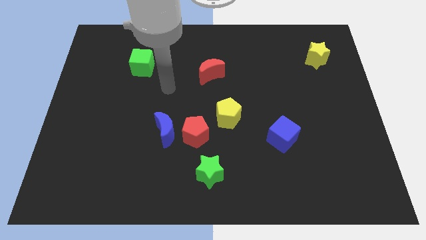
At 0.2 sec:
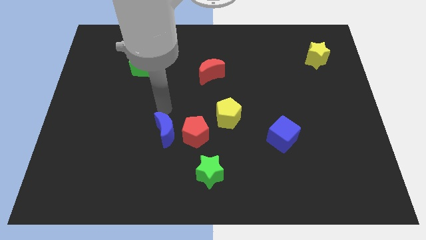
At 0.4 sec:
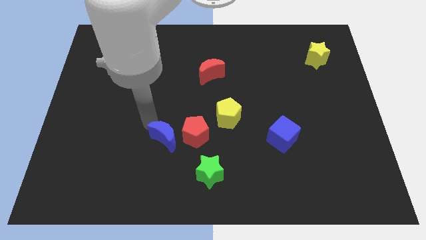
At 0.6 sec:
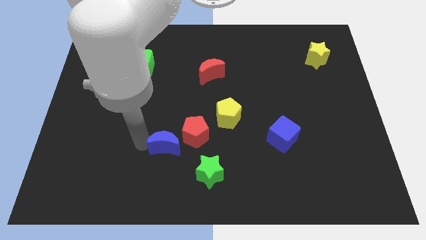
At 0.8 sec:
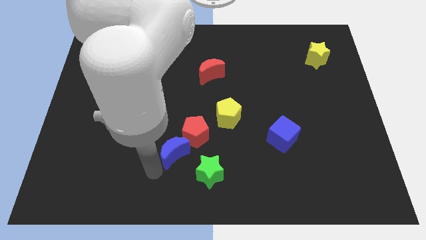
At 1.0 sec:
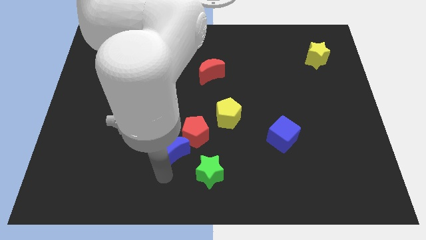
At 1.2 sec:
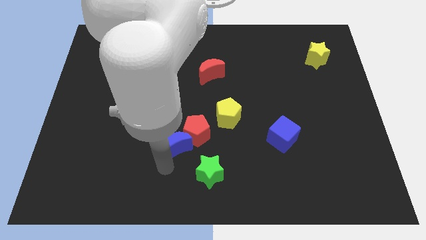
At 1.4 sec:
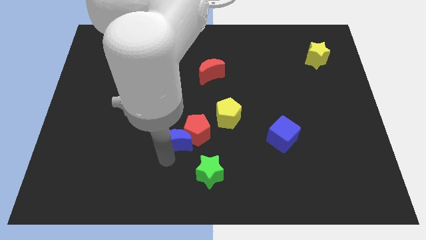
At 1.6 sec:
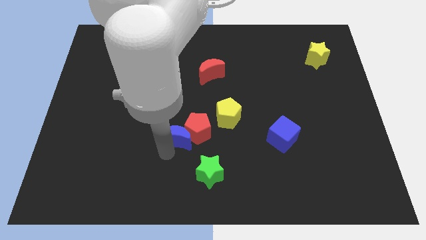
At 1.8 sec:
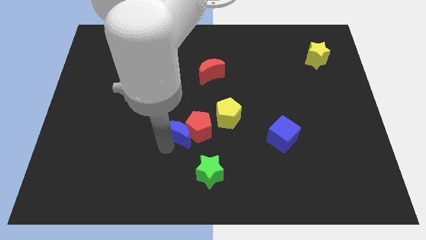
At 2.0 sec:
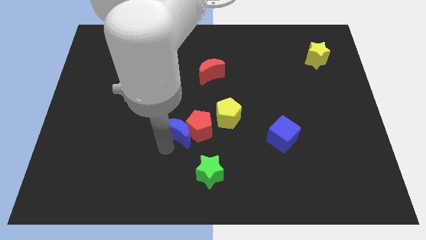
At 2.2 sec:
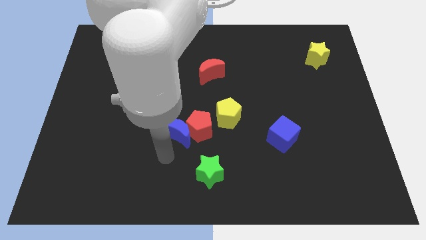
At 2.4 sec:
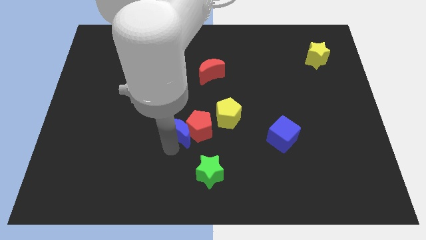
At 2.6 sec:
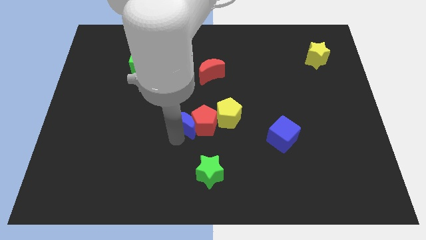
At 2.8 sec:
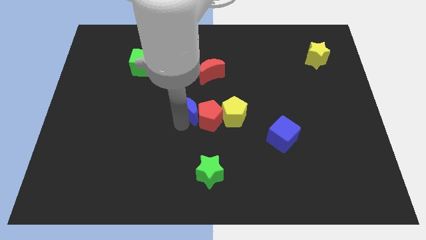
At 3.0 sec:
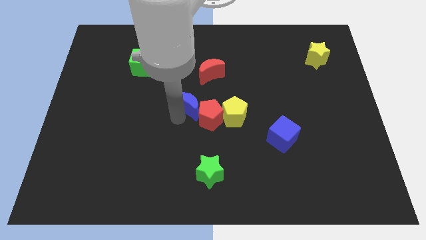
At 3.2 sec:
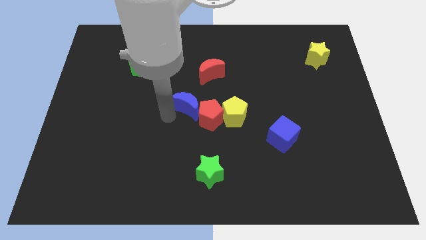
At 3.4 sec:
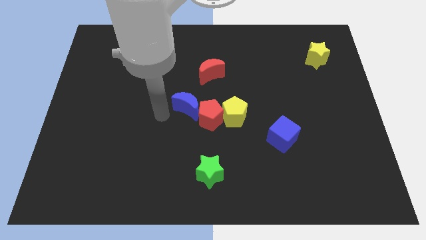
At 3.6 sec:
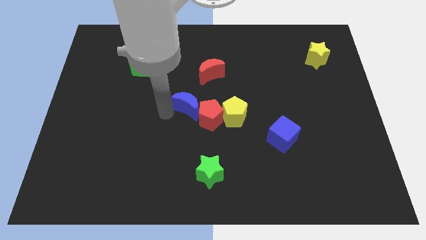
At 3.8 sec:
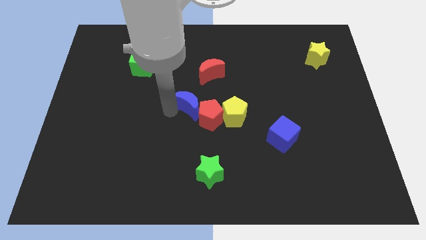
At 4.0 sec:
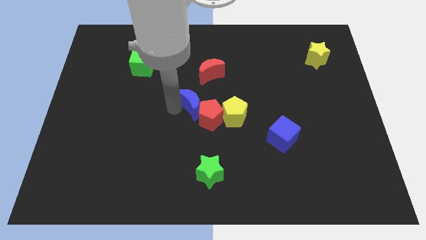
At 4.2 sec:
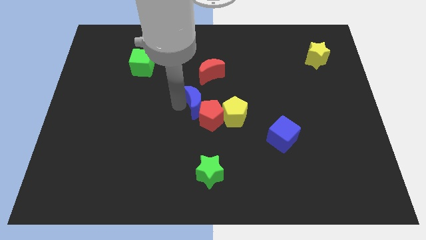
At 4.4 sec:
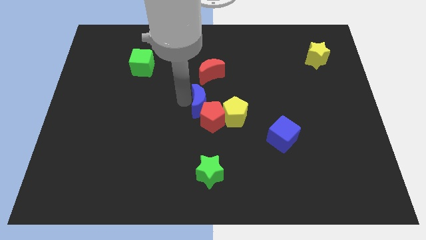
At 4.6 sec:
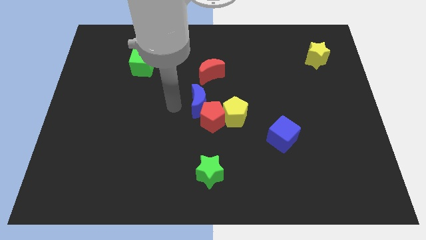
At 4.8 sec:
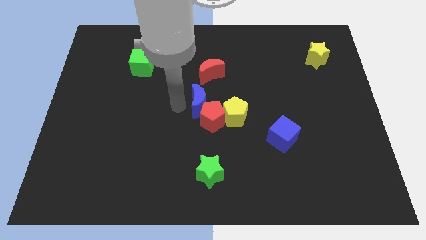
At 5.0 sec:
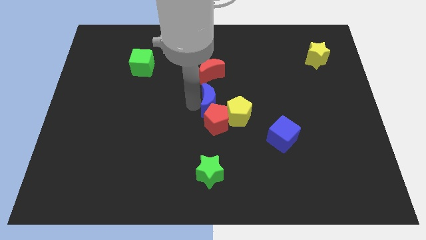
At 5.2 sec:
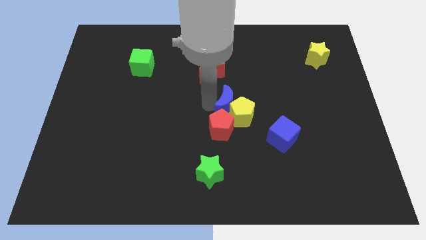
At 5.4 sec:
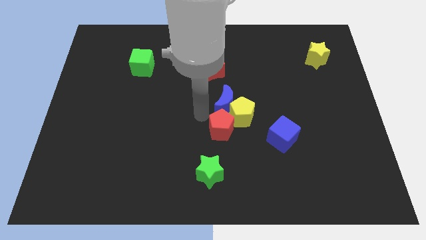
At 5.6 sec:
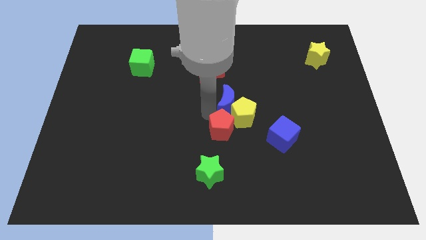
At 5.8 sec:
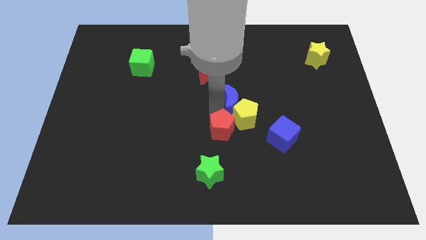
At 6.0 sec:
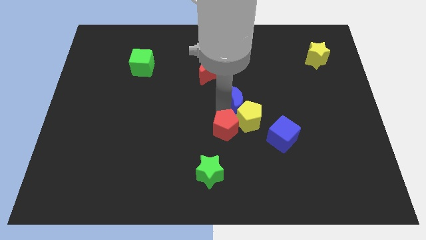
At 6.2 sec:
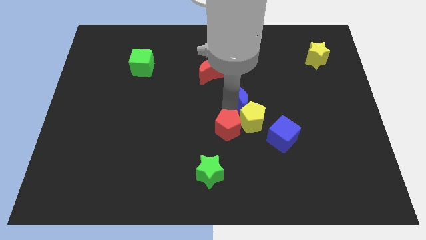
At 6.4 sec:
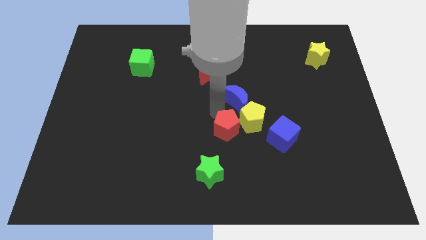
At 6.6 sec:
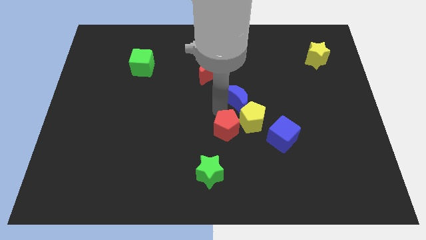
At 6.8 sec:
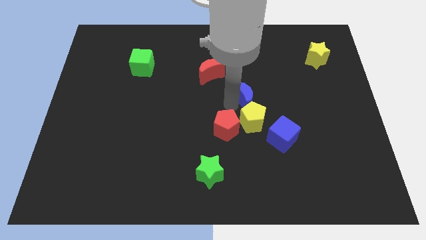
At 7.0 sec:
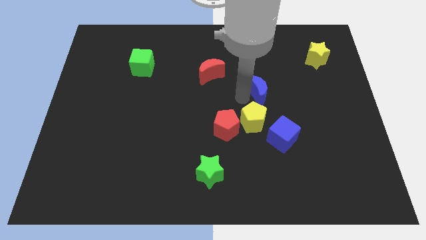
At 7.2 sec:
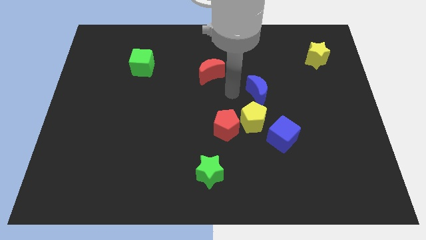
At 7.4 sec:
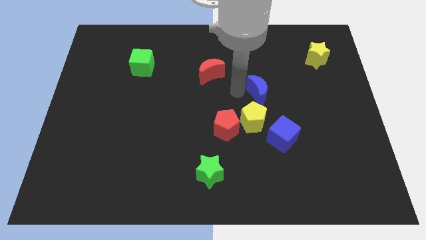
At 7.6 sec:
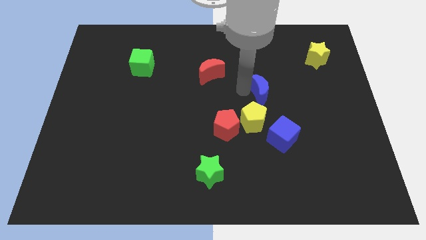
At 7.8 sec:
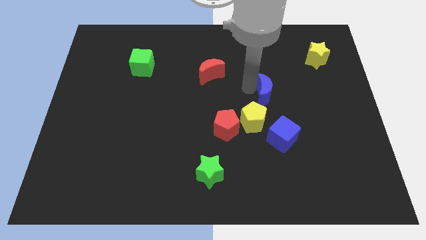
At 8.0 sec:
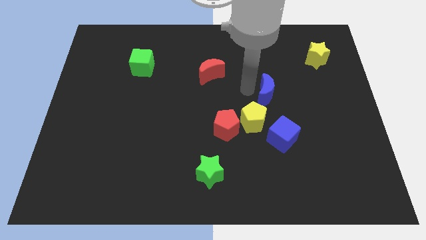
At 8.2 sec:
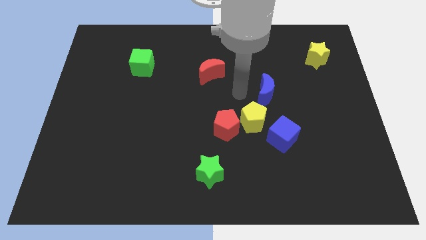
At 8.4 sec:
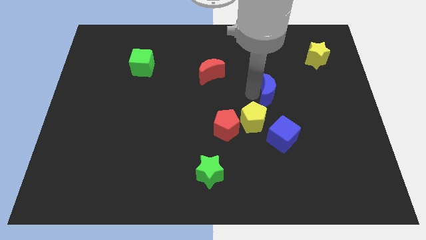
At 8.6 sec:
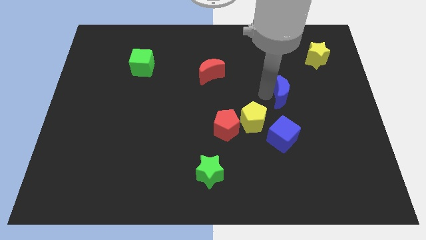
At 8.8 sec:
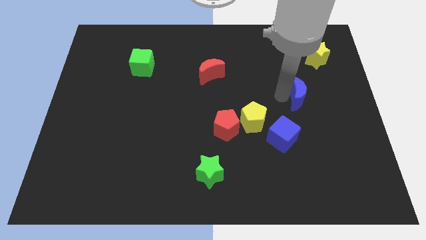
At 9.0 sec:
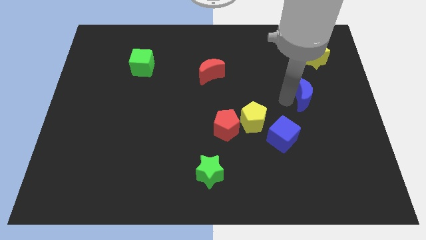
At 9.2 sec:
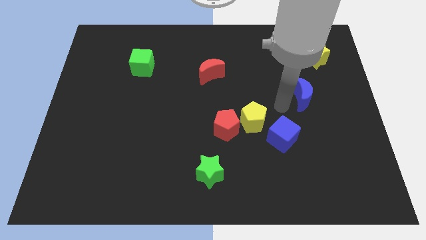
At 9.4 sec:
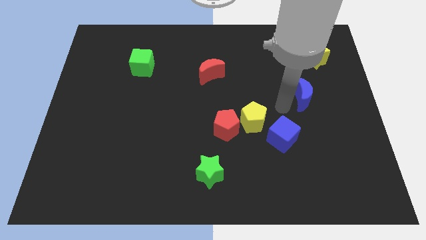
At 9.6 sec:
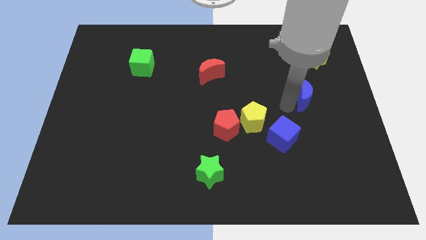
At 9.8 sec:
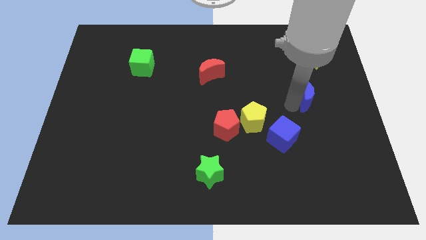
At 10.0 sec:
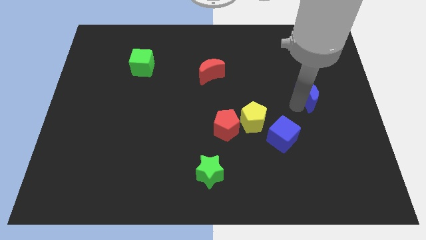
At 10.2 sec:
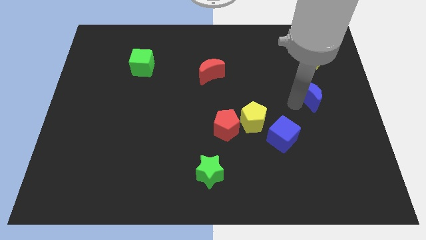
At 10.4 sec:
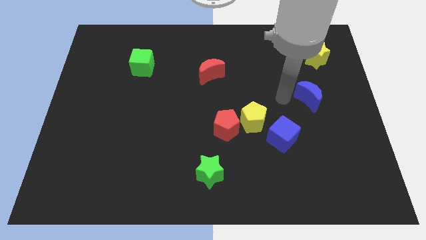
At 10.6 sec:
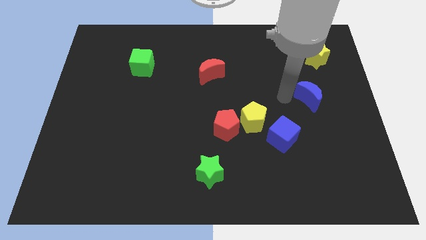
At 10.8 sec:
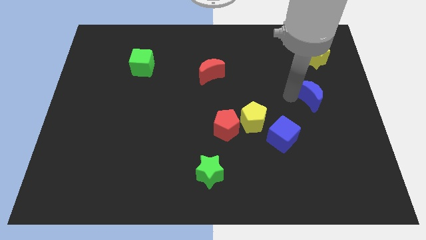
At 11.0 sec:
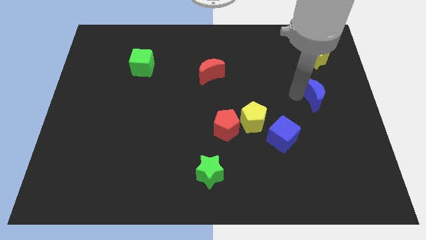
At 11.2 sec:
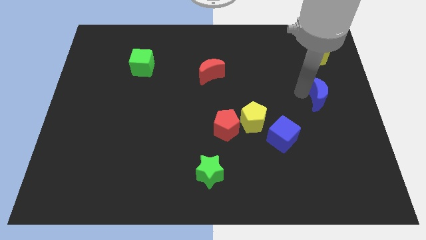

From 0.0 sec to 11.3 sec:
push the blue moon to the right side of the board
